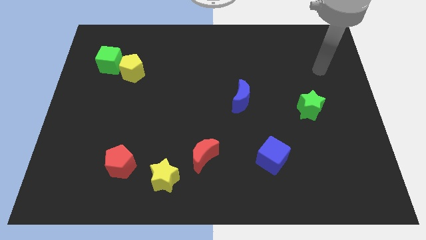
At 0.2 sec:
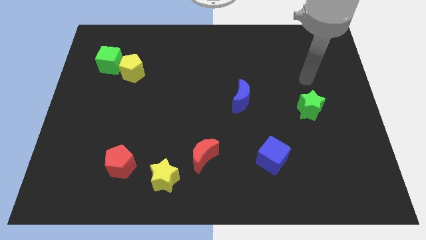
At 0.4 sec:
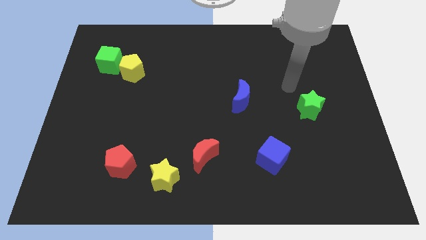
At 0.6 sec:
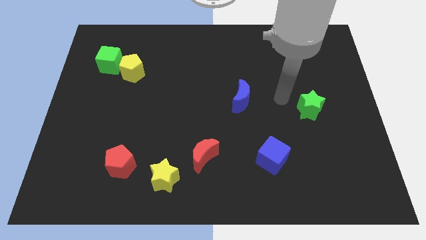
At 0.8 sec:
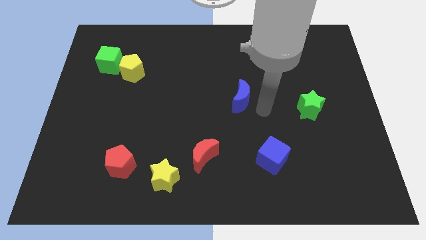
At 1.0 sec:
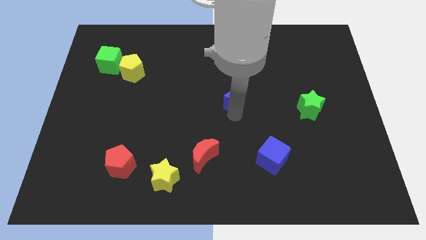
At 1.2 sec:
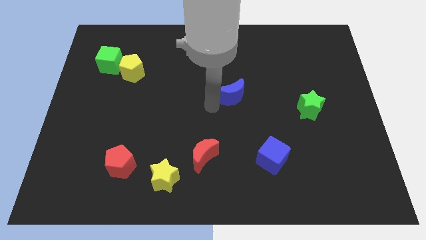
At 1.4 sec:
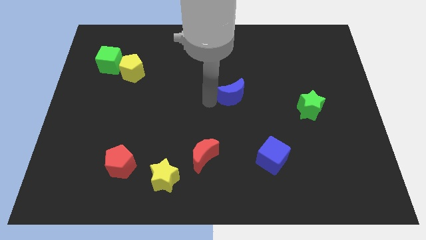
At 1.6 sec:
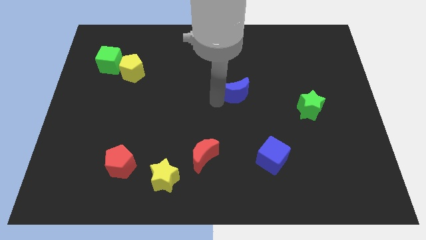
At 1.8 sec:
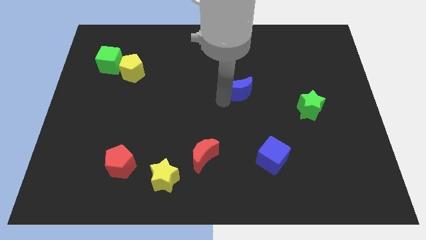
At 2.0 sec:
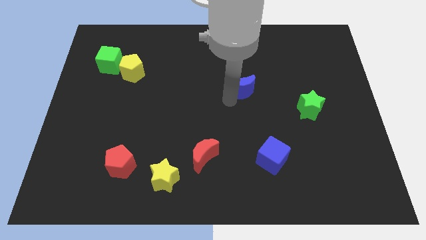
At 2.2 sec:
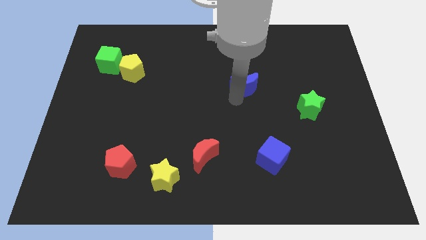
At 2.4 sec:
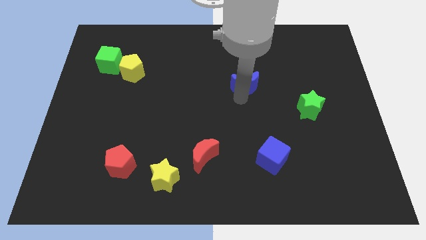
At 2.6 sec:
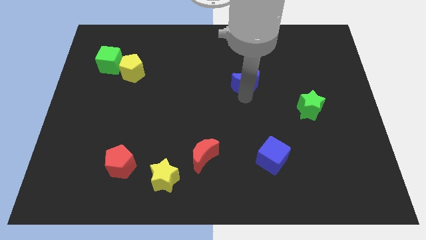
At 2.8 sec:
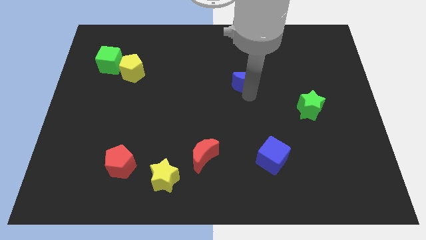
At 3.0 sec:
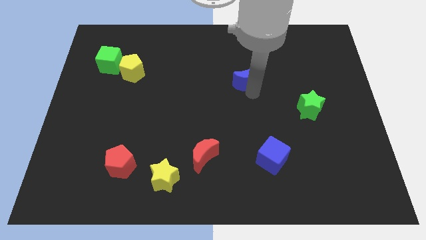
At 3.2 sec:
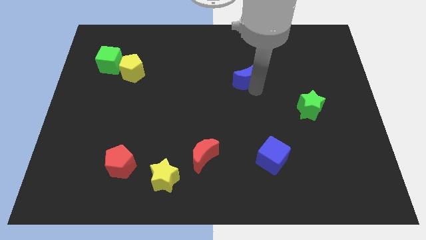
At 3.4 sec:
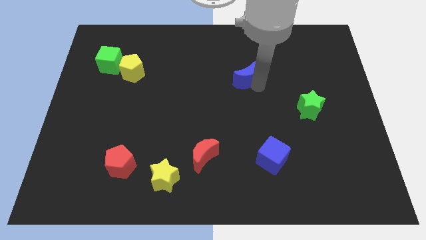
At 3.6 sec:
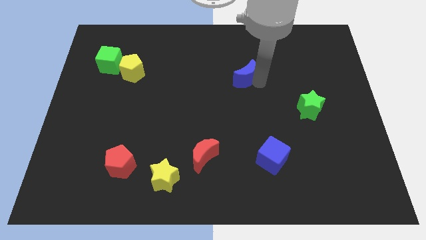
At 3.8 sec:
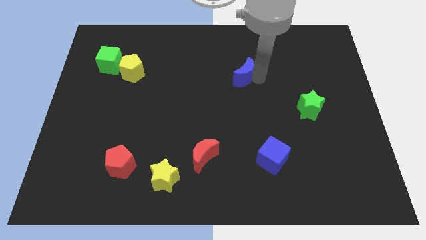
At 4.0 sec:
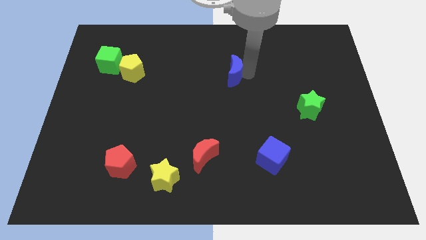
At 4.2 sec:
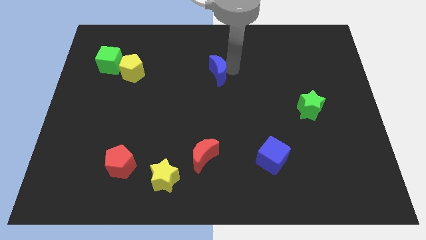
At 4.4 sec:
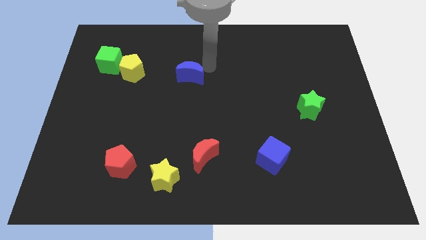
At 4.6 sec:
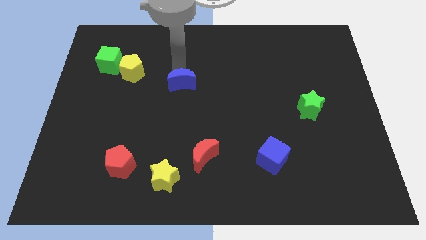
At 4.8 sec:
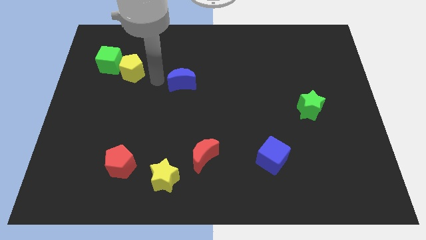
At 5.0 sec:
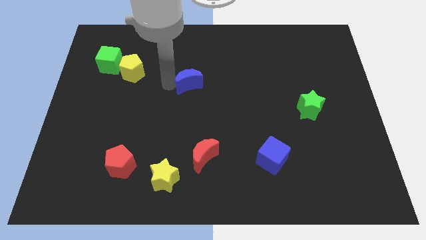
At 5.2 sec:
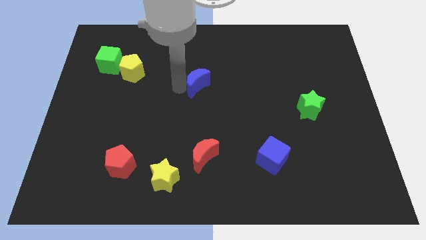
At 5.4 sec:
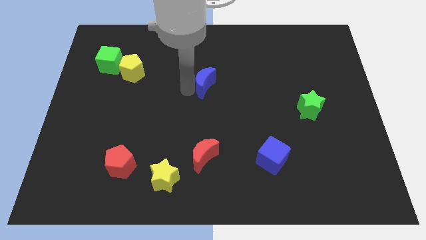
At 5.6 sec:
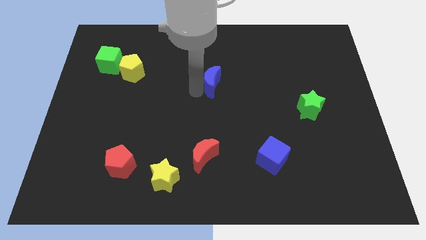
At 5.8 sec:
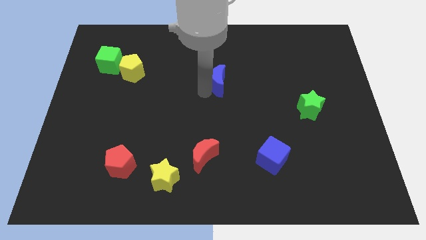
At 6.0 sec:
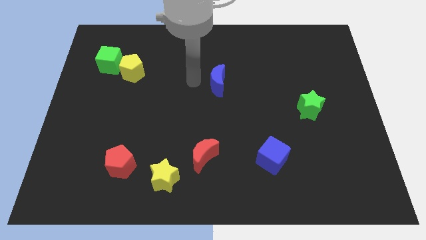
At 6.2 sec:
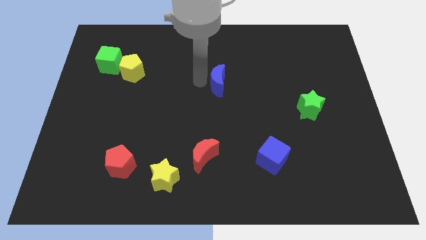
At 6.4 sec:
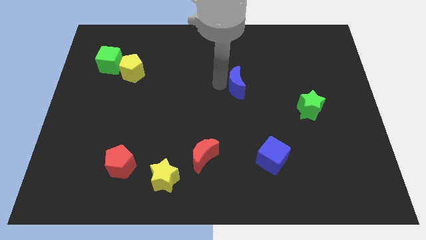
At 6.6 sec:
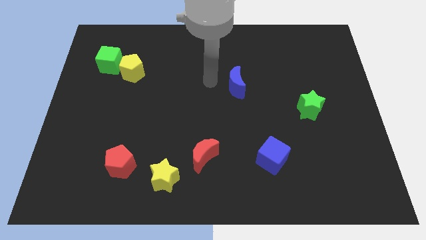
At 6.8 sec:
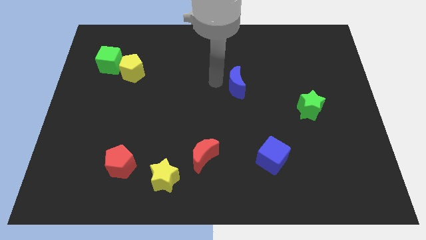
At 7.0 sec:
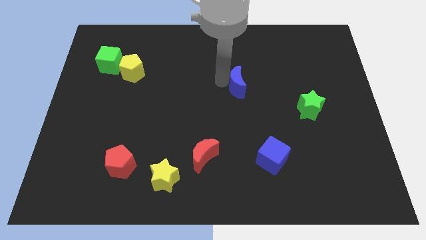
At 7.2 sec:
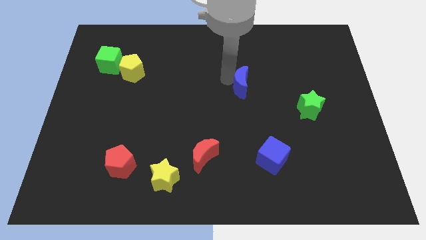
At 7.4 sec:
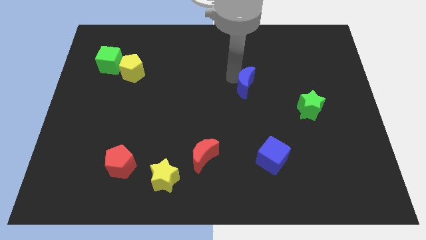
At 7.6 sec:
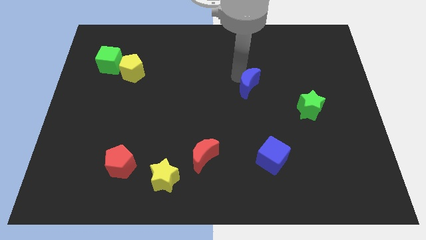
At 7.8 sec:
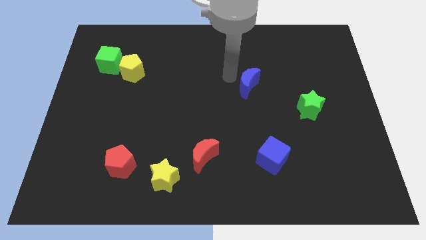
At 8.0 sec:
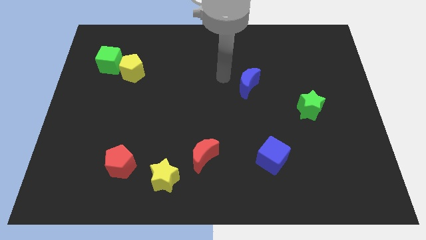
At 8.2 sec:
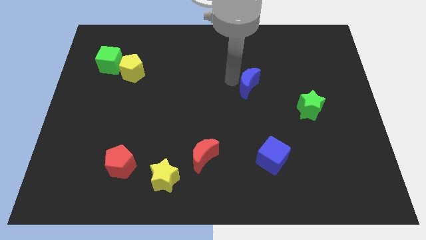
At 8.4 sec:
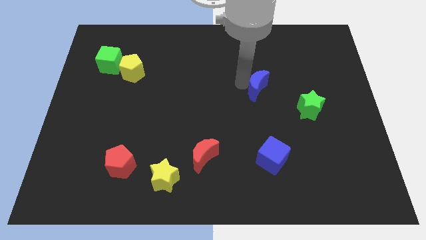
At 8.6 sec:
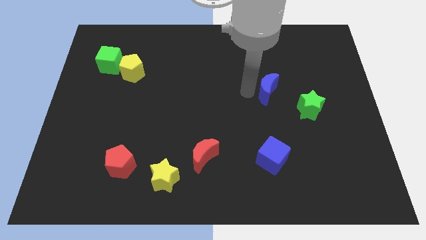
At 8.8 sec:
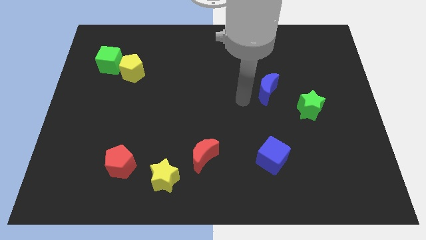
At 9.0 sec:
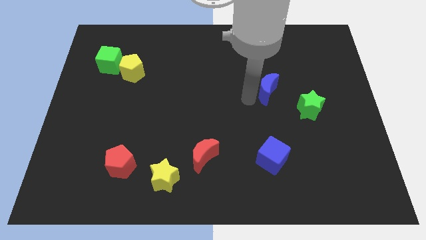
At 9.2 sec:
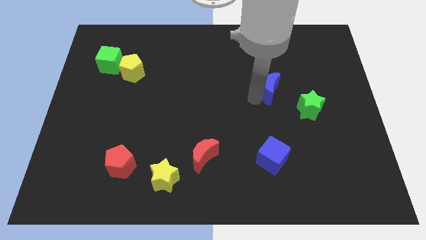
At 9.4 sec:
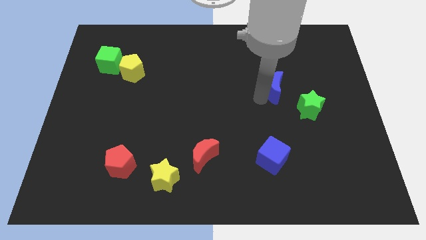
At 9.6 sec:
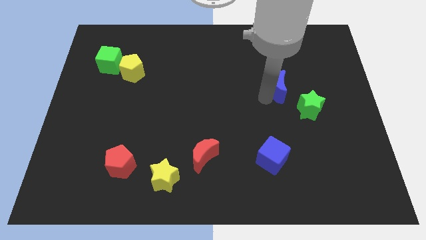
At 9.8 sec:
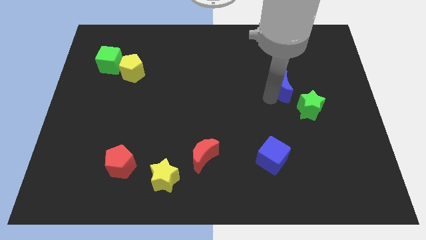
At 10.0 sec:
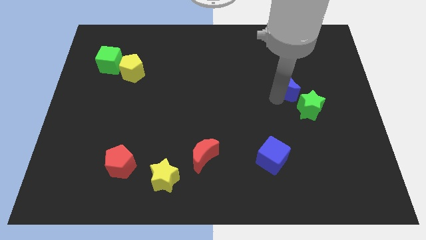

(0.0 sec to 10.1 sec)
push the blue moon to the top side of the green star

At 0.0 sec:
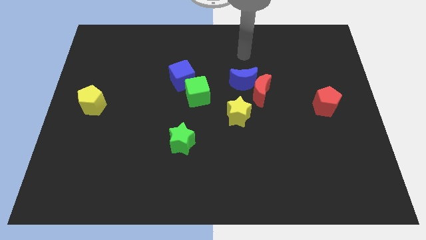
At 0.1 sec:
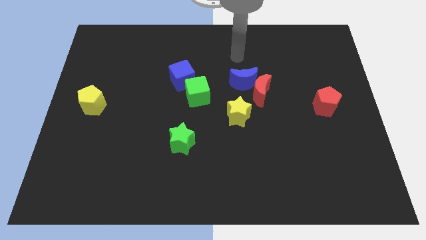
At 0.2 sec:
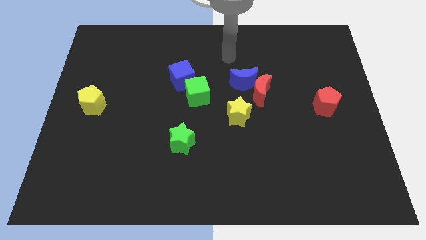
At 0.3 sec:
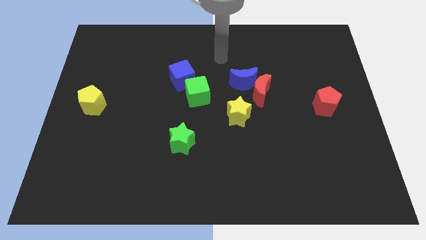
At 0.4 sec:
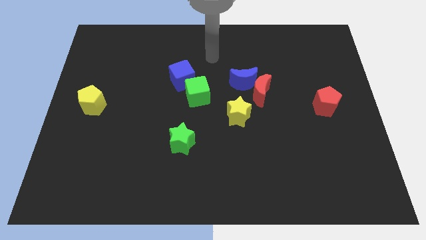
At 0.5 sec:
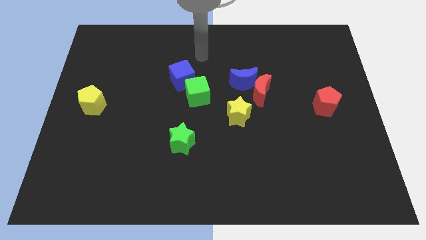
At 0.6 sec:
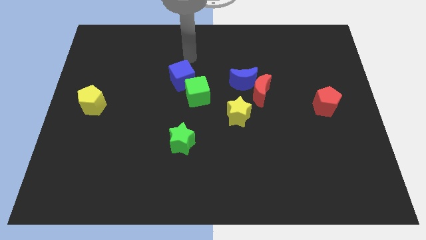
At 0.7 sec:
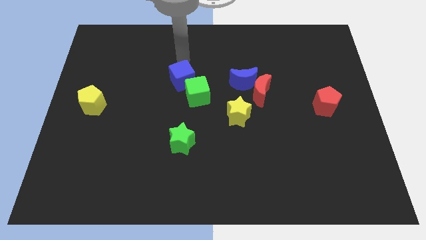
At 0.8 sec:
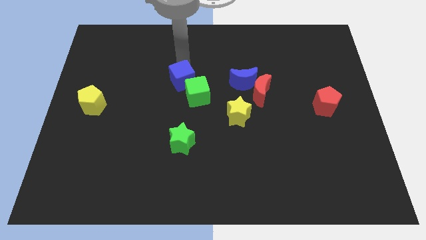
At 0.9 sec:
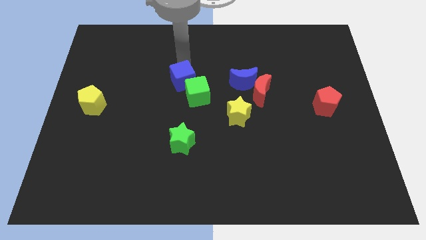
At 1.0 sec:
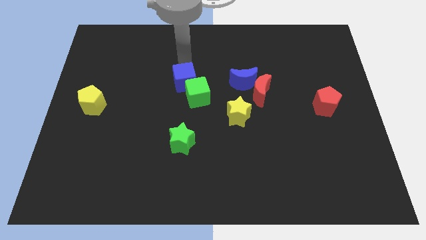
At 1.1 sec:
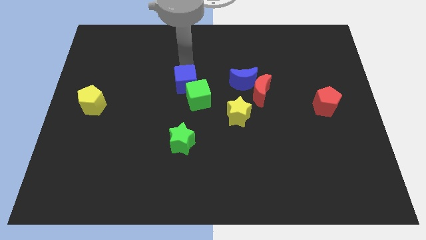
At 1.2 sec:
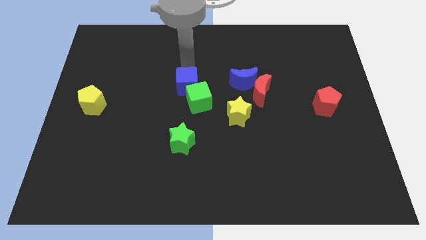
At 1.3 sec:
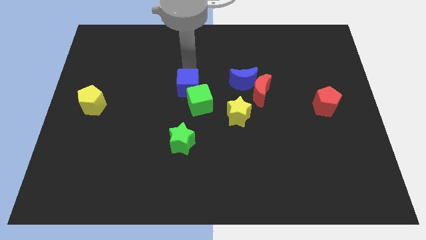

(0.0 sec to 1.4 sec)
move the blue cube above the green star
